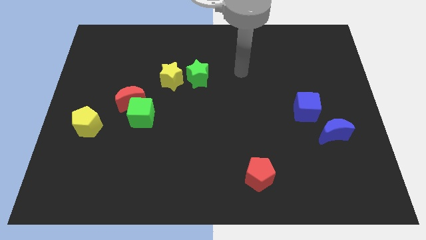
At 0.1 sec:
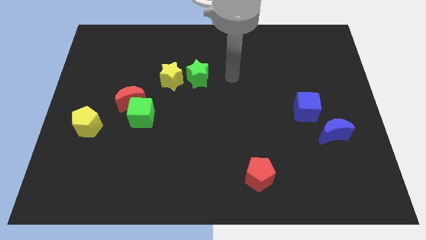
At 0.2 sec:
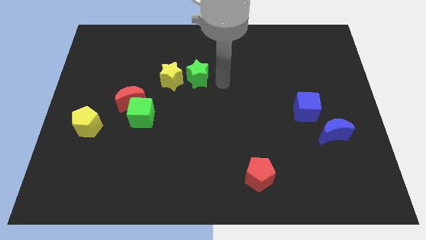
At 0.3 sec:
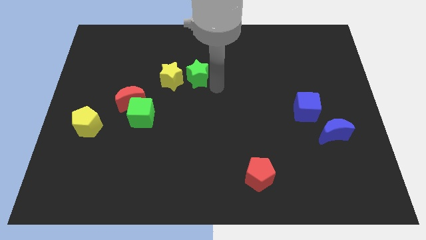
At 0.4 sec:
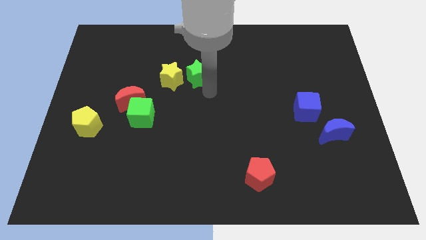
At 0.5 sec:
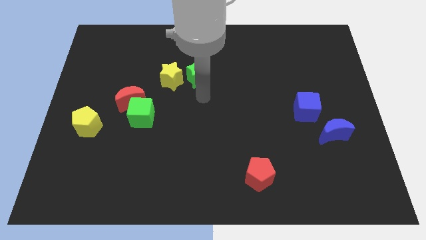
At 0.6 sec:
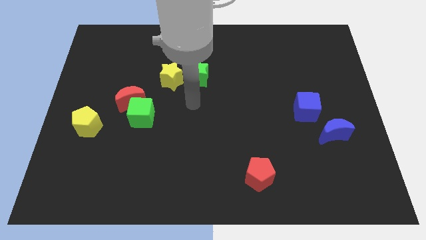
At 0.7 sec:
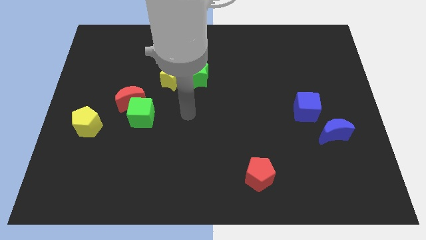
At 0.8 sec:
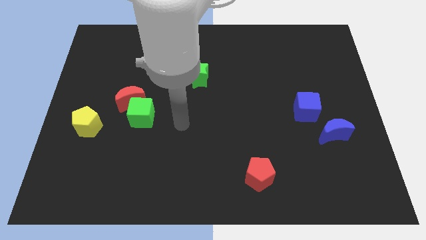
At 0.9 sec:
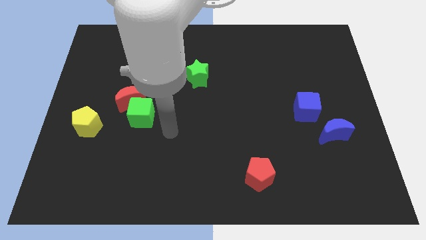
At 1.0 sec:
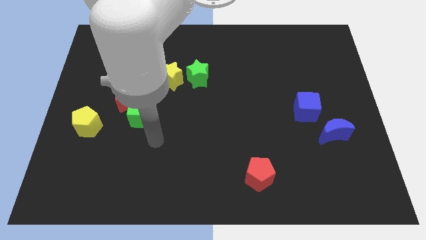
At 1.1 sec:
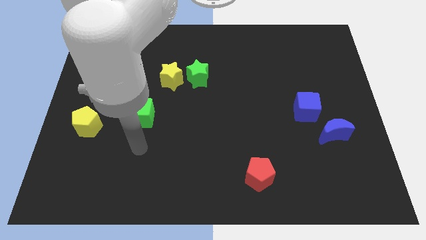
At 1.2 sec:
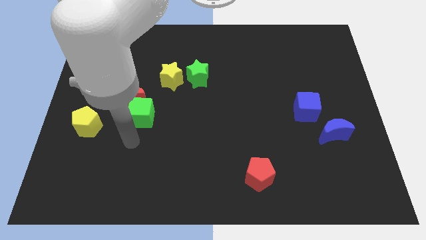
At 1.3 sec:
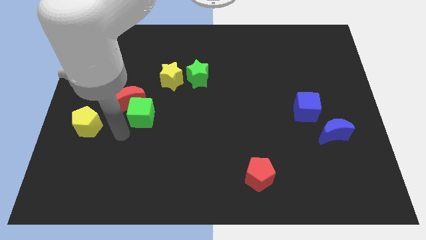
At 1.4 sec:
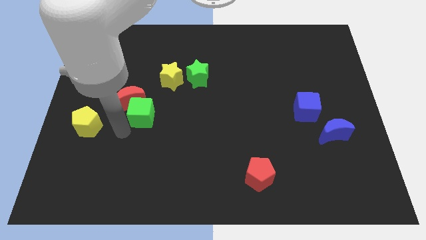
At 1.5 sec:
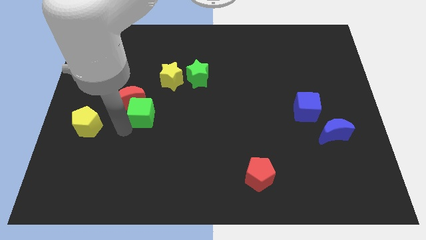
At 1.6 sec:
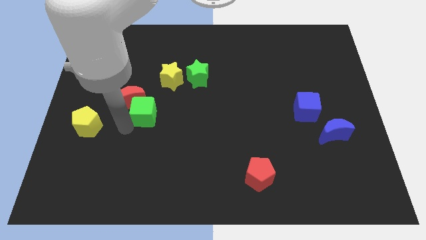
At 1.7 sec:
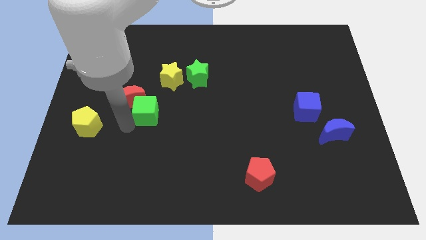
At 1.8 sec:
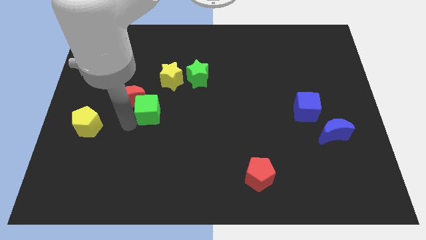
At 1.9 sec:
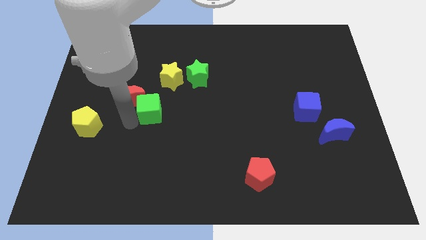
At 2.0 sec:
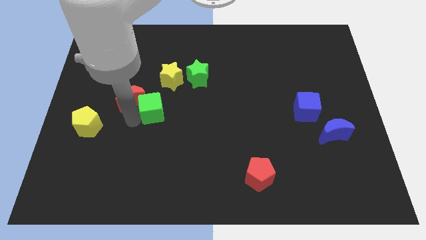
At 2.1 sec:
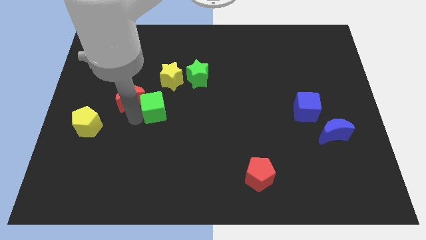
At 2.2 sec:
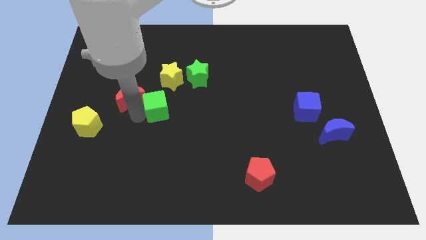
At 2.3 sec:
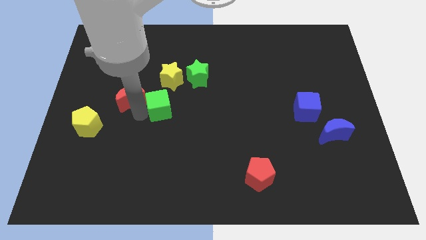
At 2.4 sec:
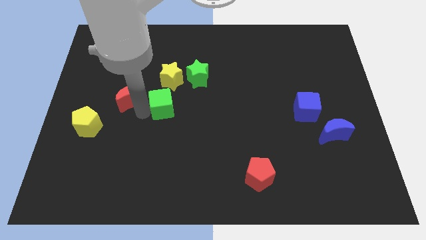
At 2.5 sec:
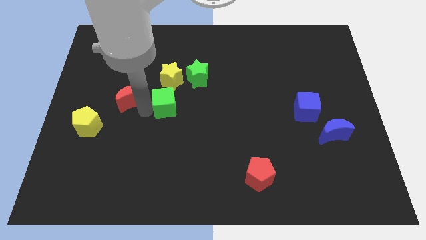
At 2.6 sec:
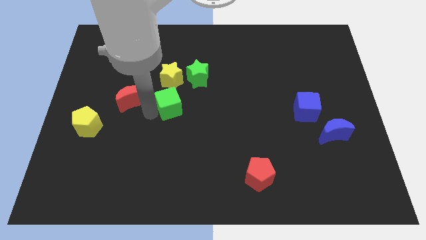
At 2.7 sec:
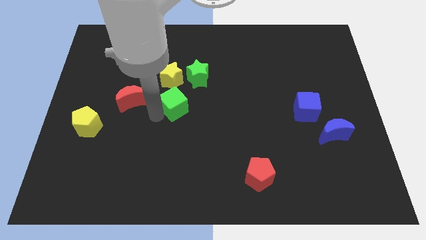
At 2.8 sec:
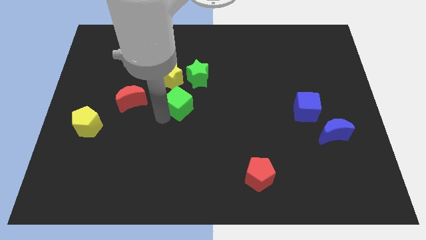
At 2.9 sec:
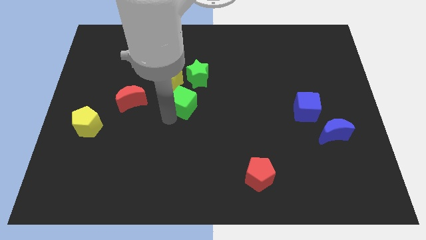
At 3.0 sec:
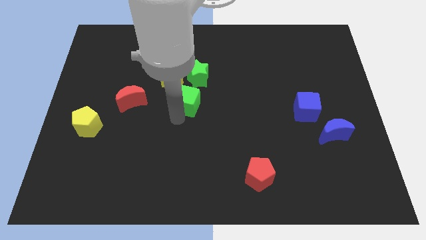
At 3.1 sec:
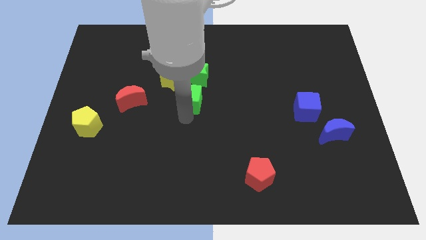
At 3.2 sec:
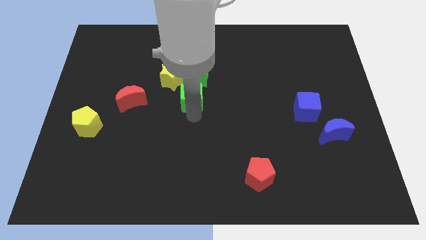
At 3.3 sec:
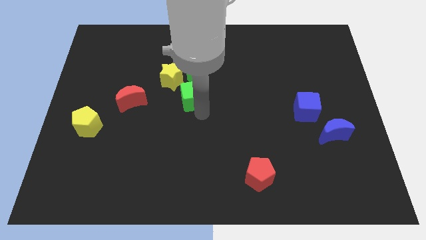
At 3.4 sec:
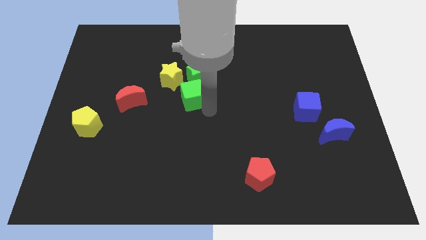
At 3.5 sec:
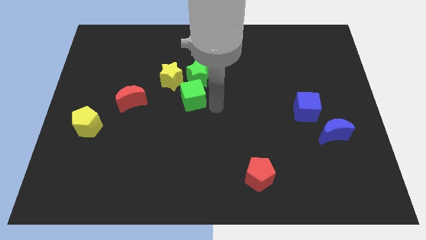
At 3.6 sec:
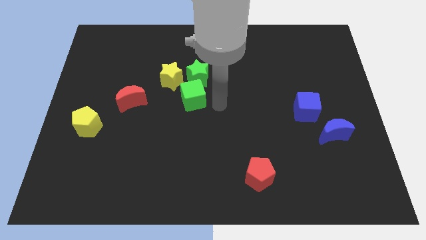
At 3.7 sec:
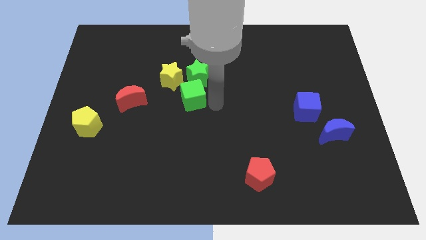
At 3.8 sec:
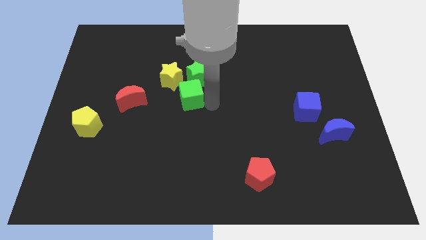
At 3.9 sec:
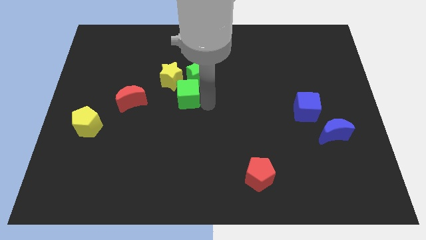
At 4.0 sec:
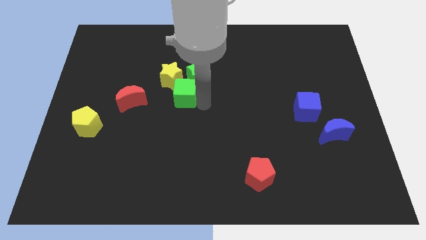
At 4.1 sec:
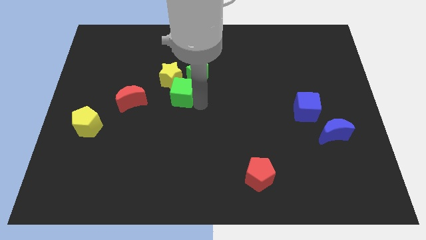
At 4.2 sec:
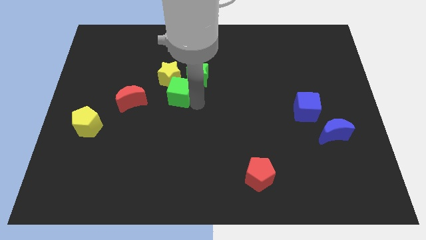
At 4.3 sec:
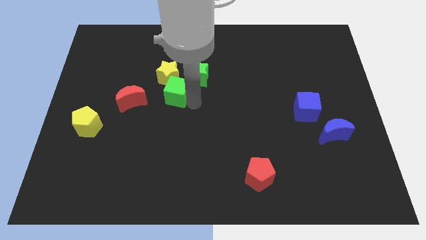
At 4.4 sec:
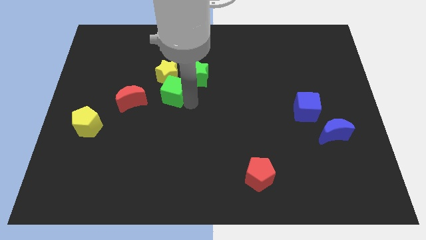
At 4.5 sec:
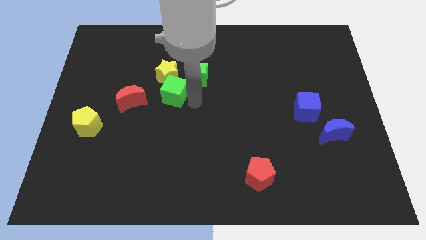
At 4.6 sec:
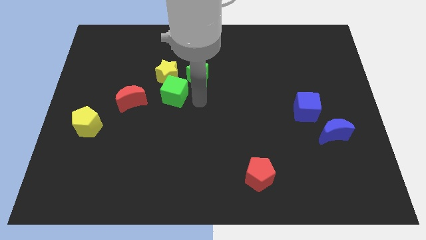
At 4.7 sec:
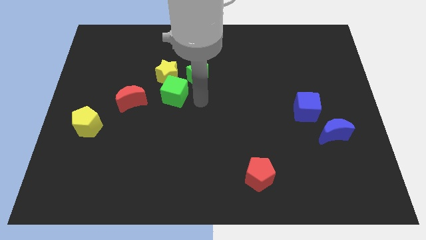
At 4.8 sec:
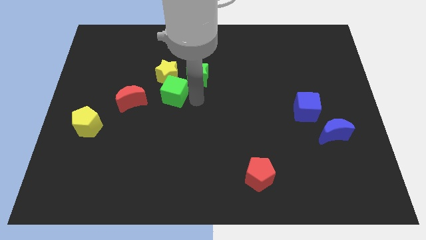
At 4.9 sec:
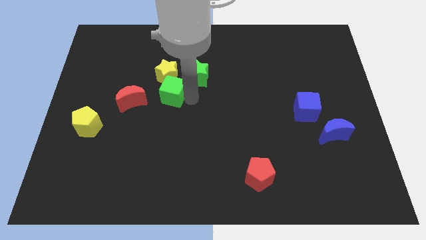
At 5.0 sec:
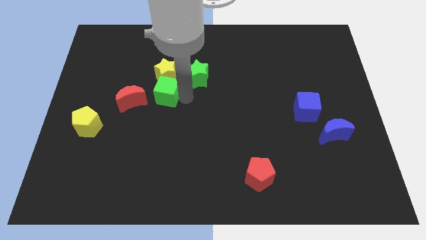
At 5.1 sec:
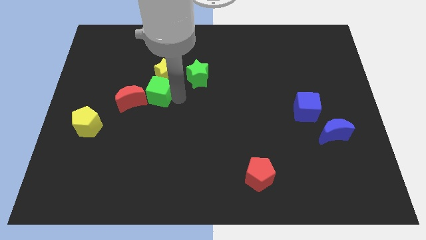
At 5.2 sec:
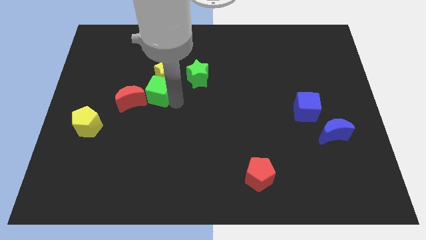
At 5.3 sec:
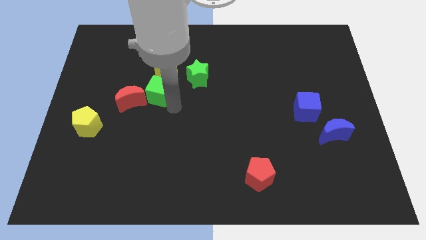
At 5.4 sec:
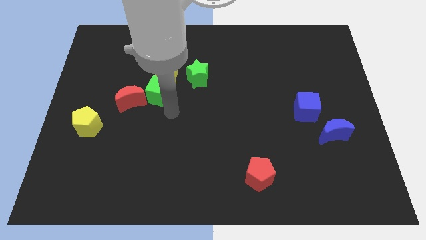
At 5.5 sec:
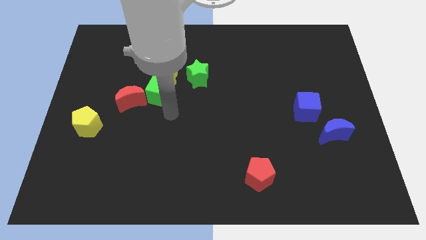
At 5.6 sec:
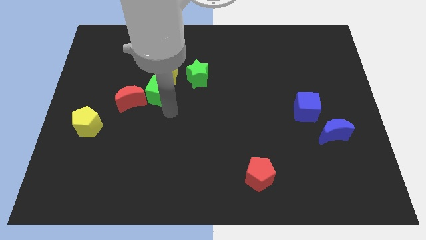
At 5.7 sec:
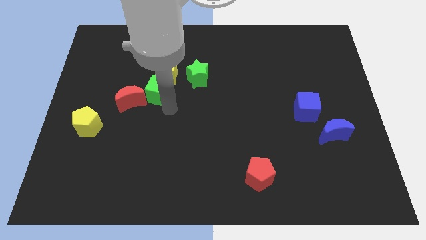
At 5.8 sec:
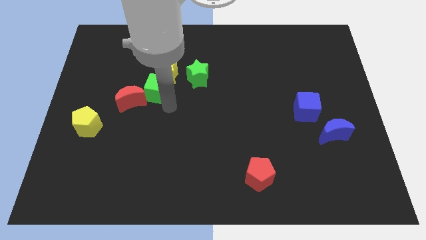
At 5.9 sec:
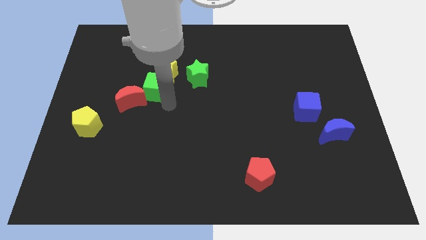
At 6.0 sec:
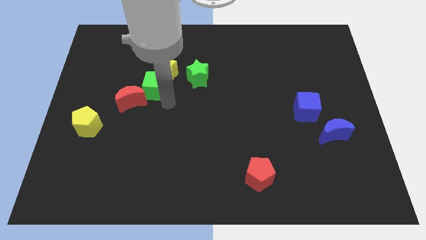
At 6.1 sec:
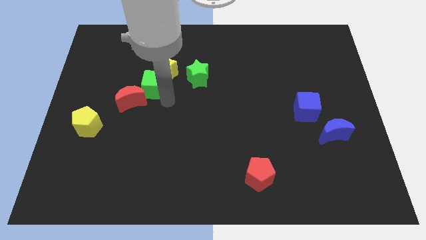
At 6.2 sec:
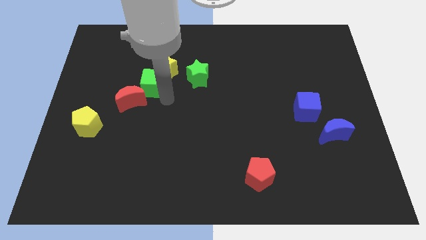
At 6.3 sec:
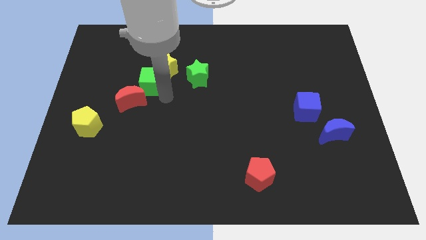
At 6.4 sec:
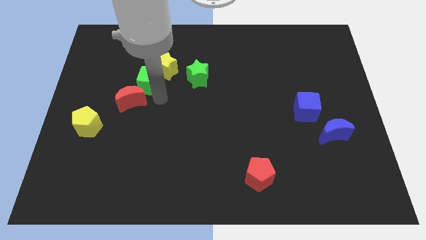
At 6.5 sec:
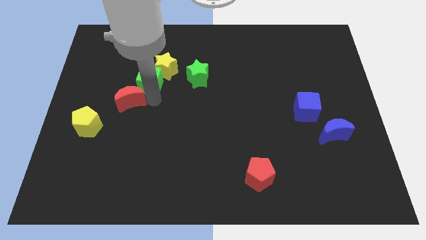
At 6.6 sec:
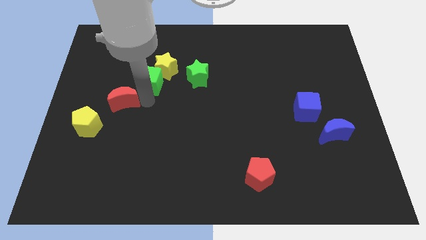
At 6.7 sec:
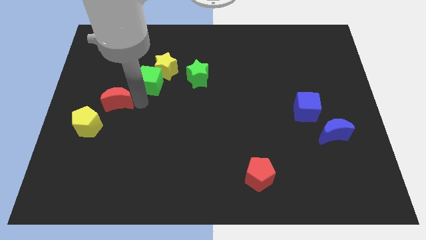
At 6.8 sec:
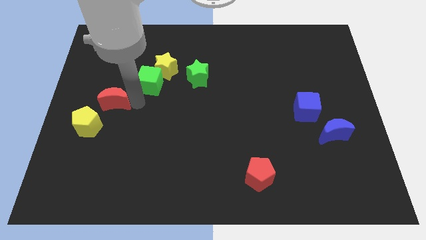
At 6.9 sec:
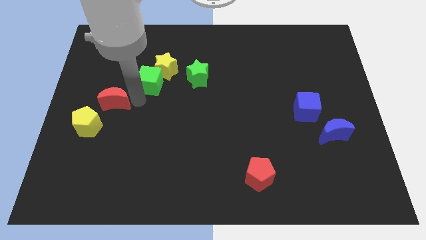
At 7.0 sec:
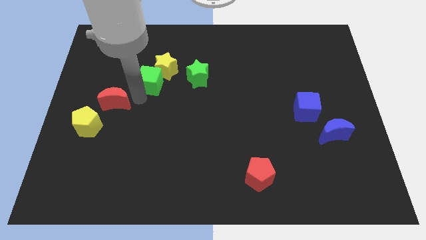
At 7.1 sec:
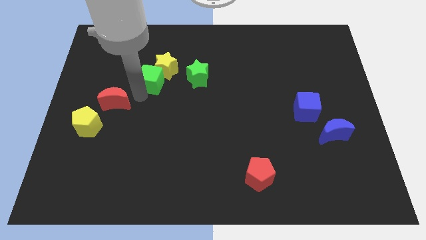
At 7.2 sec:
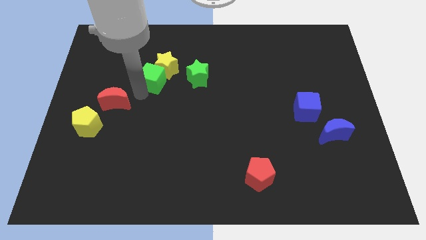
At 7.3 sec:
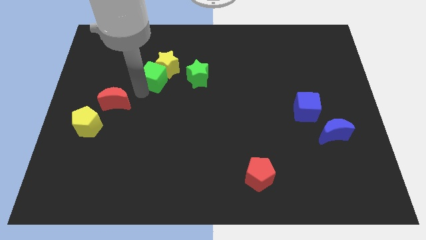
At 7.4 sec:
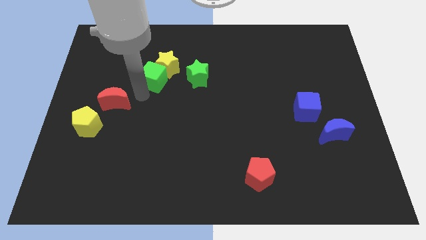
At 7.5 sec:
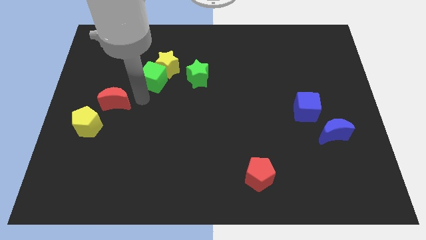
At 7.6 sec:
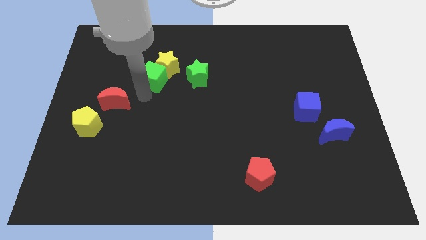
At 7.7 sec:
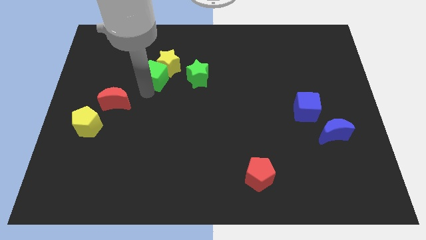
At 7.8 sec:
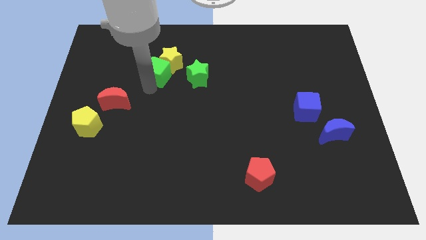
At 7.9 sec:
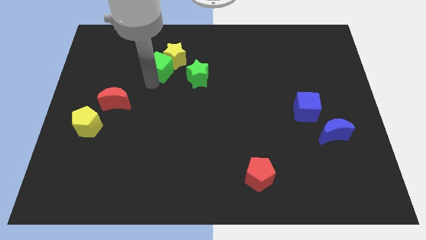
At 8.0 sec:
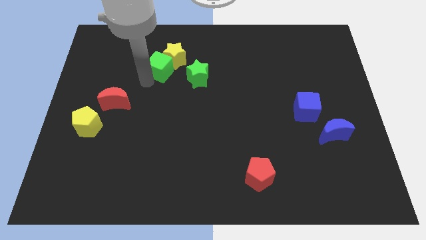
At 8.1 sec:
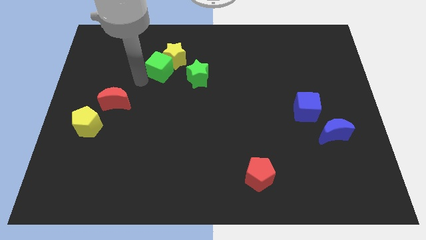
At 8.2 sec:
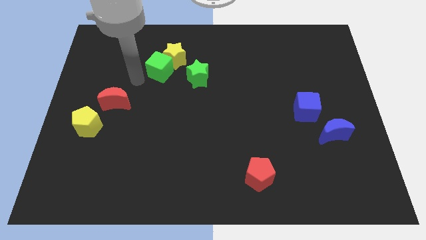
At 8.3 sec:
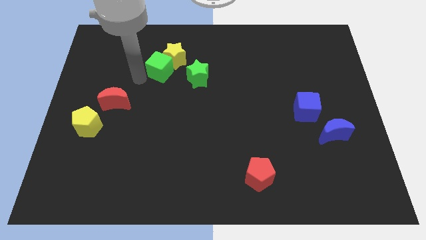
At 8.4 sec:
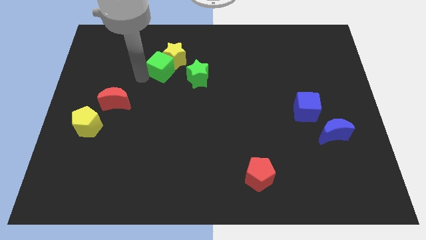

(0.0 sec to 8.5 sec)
put the green cube diagonally up and to the left of the green star
